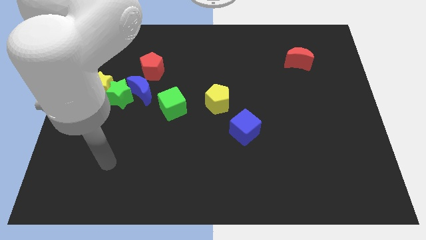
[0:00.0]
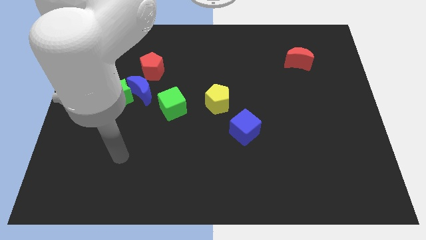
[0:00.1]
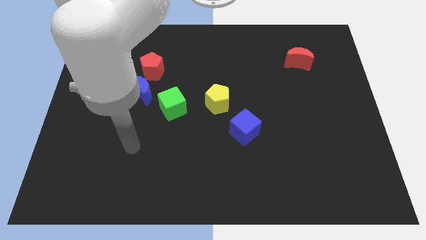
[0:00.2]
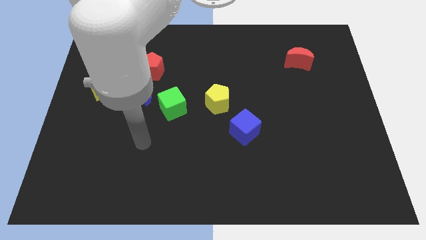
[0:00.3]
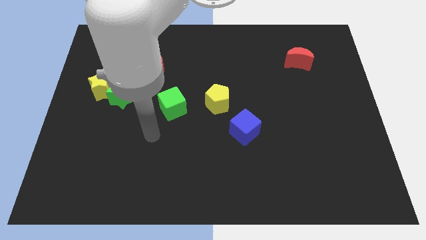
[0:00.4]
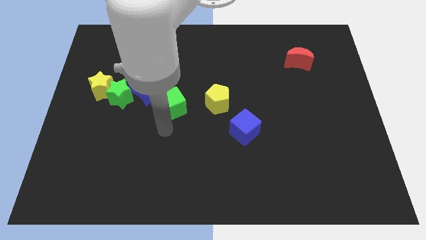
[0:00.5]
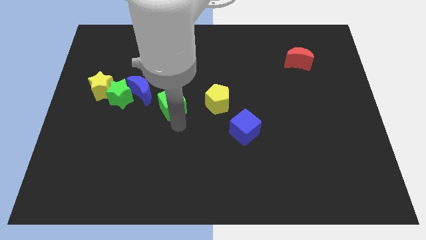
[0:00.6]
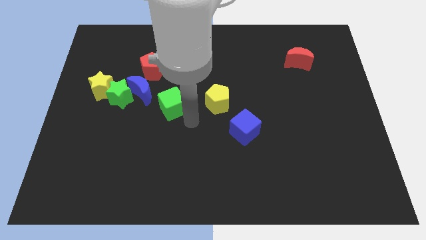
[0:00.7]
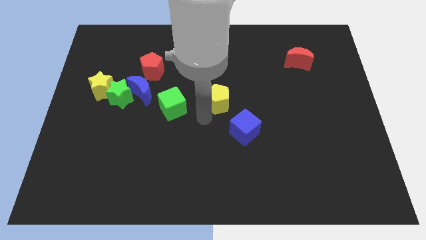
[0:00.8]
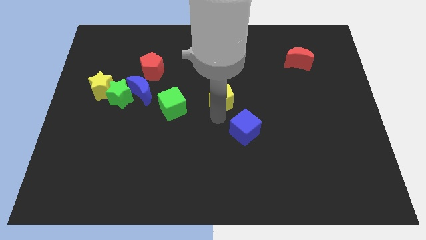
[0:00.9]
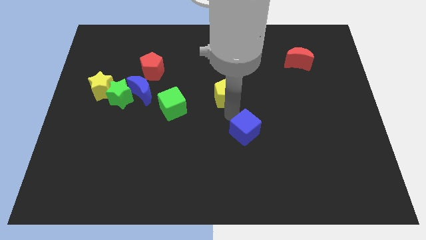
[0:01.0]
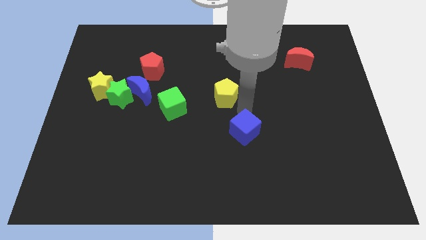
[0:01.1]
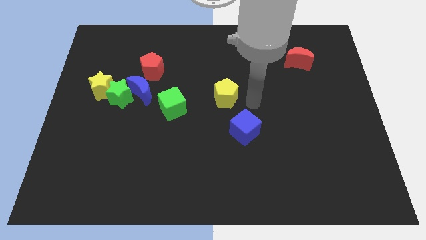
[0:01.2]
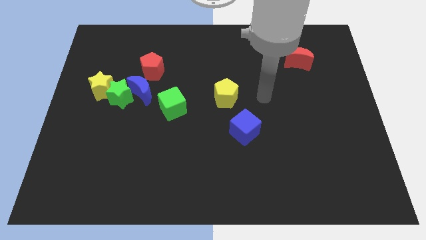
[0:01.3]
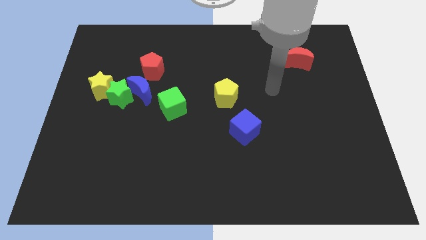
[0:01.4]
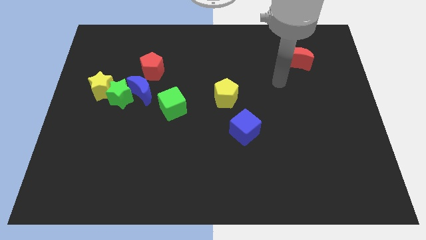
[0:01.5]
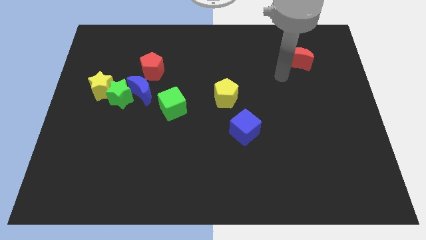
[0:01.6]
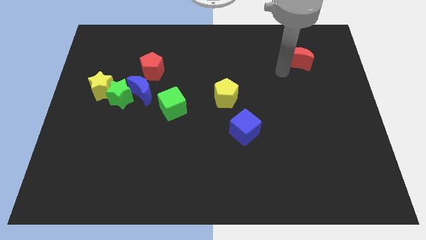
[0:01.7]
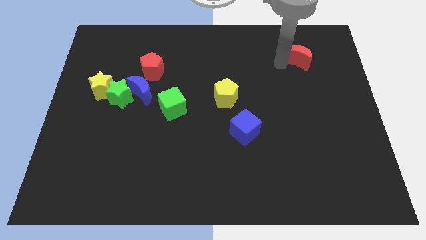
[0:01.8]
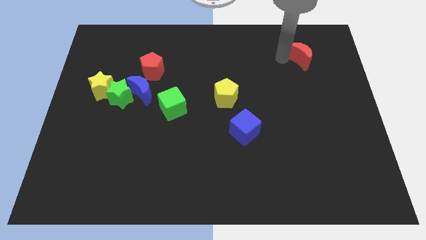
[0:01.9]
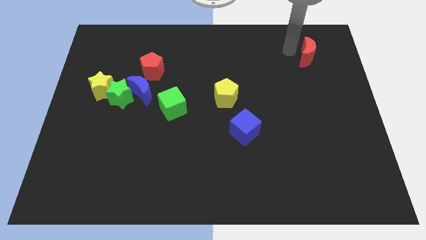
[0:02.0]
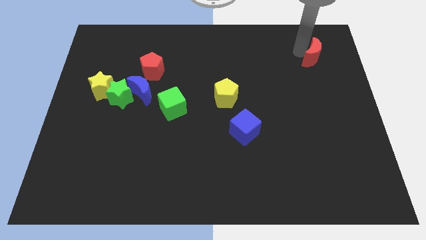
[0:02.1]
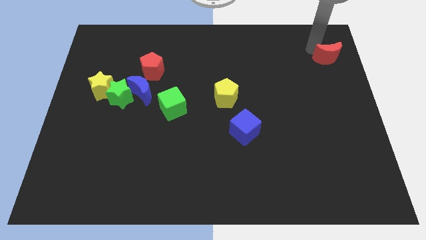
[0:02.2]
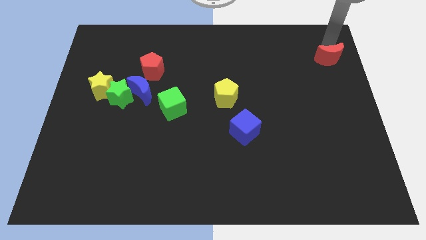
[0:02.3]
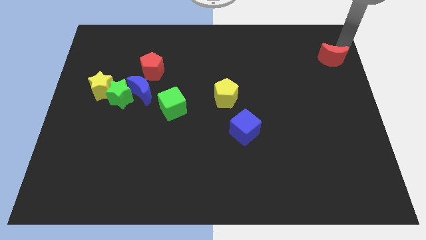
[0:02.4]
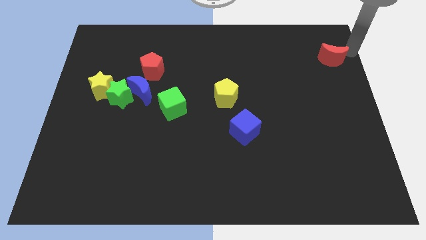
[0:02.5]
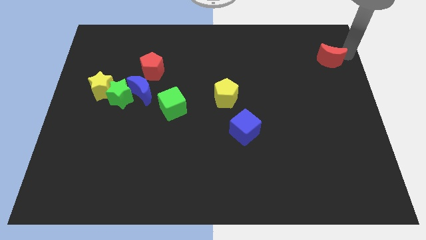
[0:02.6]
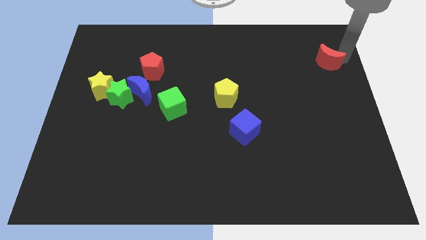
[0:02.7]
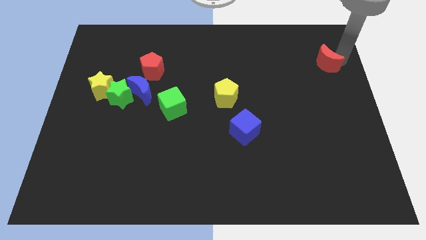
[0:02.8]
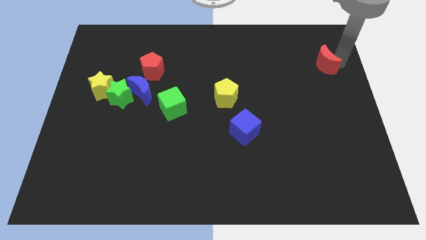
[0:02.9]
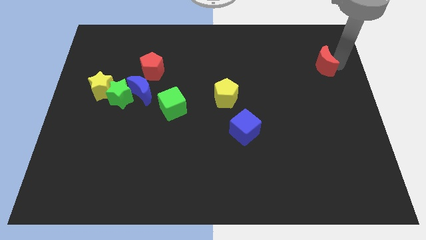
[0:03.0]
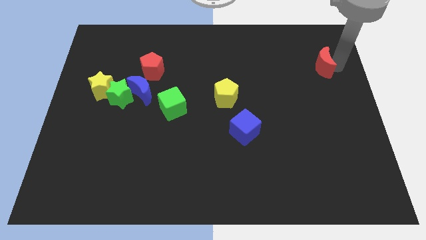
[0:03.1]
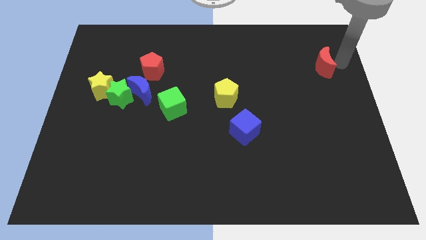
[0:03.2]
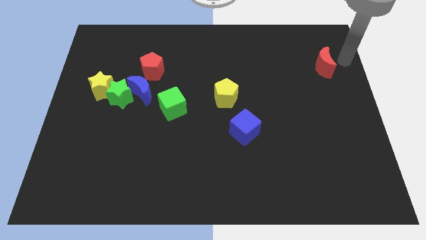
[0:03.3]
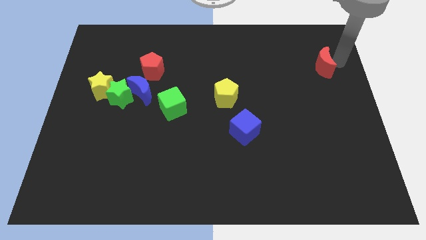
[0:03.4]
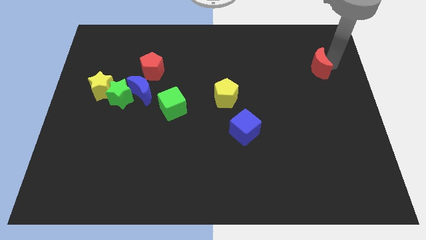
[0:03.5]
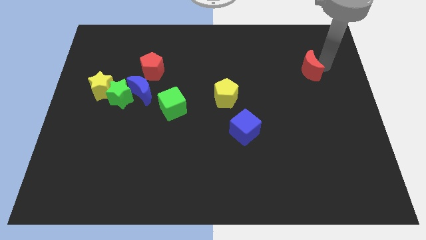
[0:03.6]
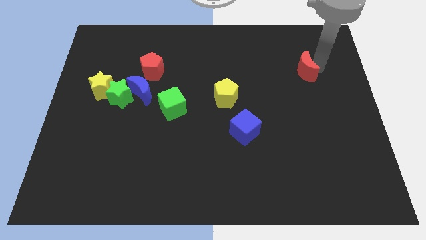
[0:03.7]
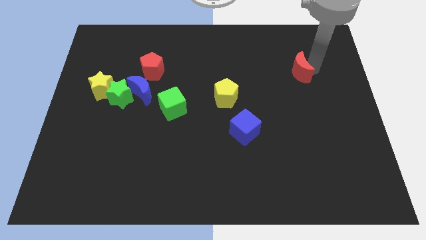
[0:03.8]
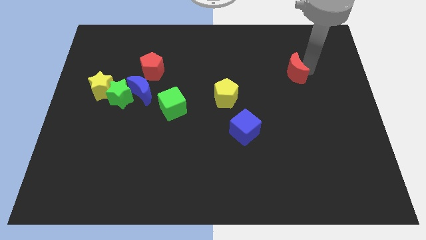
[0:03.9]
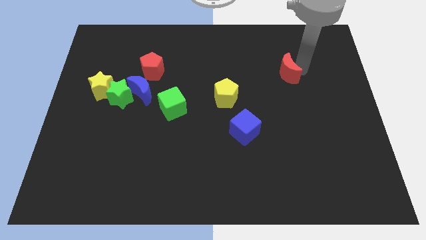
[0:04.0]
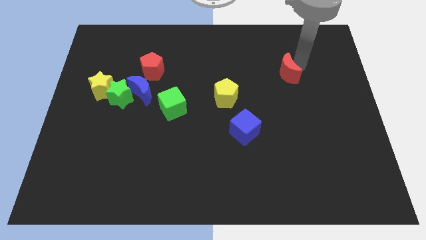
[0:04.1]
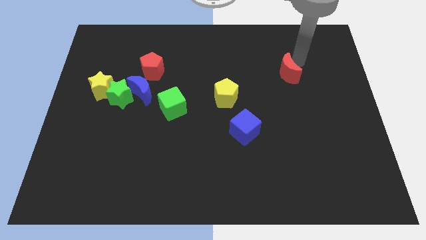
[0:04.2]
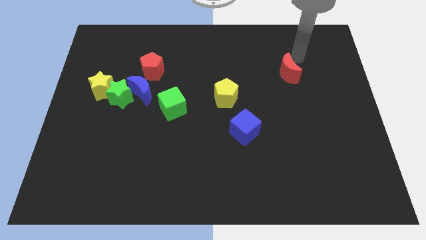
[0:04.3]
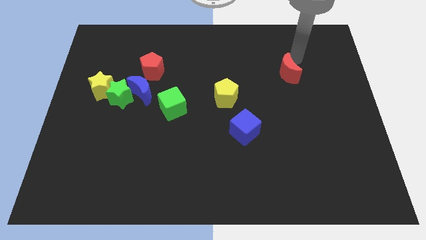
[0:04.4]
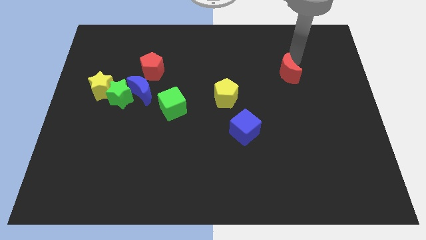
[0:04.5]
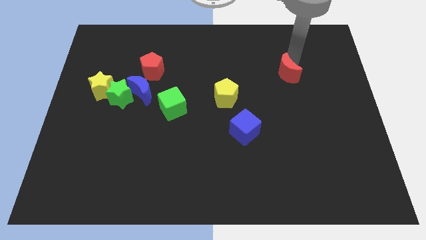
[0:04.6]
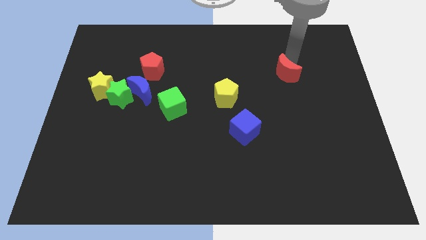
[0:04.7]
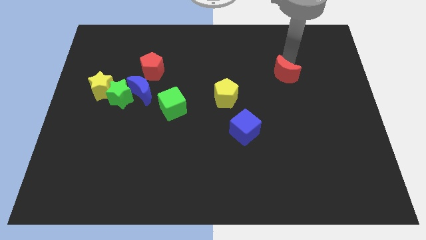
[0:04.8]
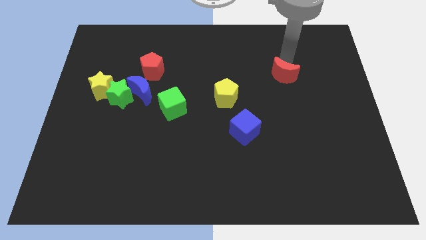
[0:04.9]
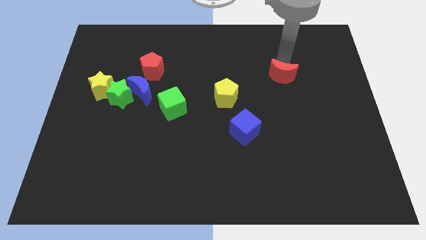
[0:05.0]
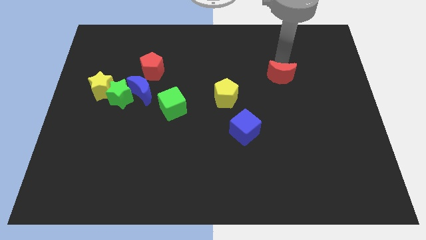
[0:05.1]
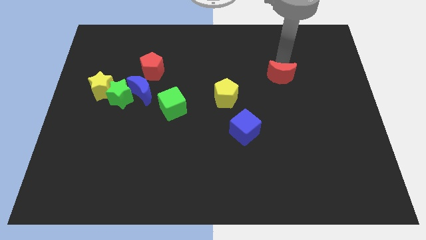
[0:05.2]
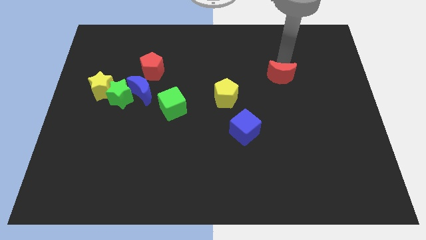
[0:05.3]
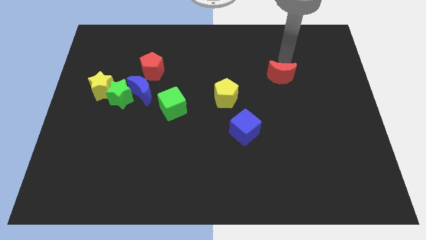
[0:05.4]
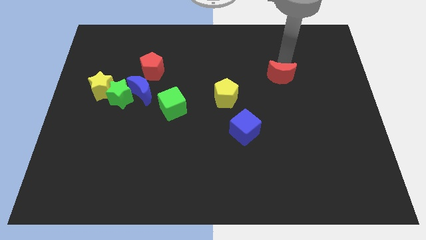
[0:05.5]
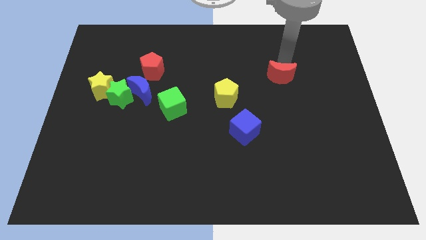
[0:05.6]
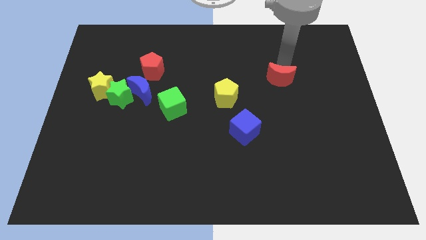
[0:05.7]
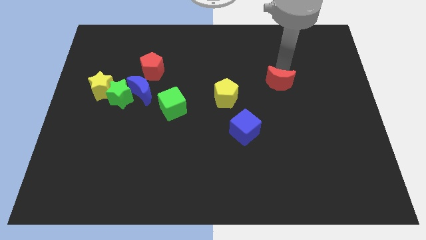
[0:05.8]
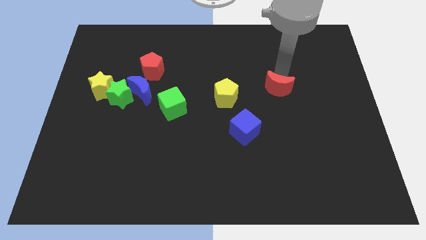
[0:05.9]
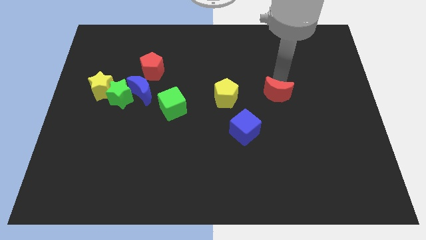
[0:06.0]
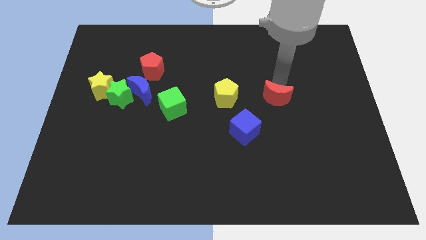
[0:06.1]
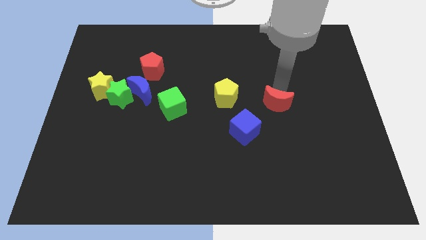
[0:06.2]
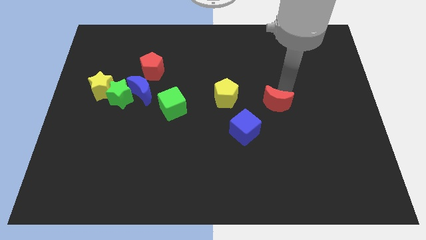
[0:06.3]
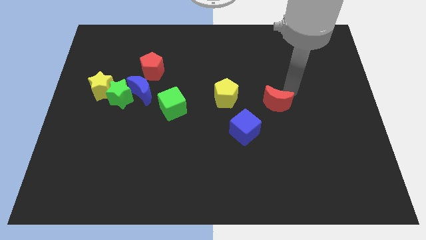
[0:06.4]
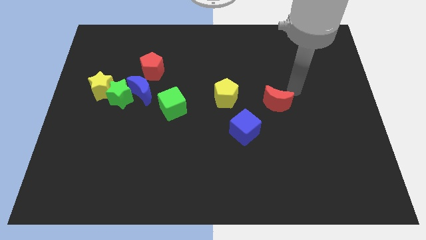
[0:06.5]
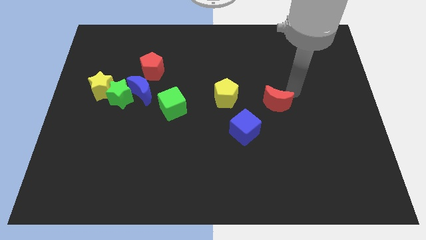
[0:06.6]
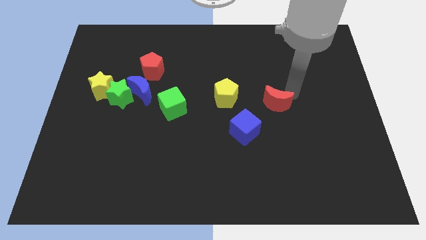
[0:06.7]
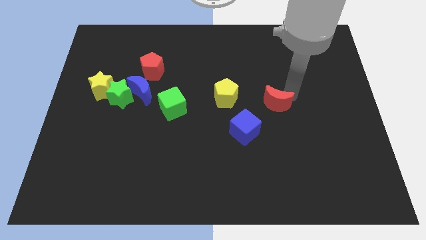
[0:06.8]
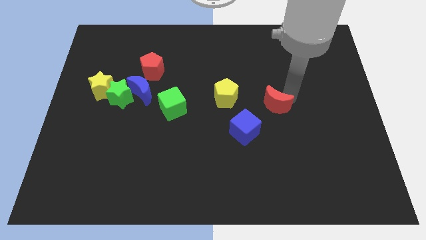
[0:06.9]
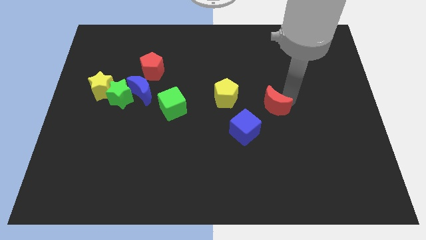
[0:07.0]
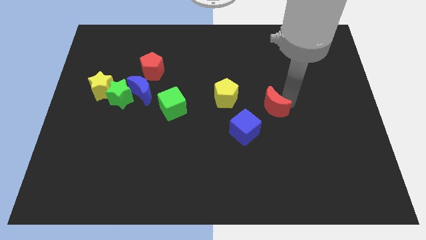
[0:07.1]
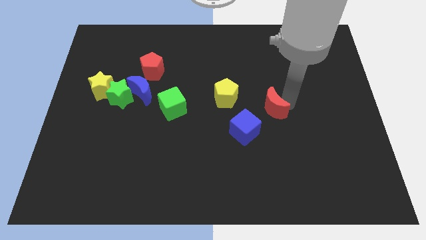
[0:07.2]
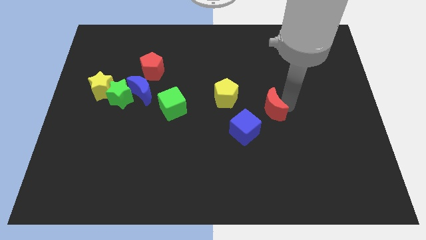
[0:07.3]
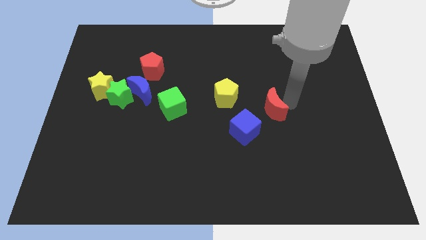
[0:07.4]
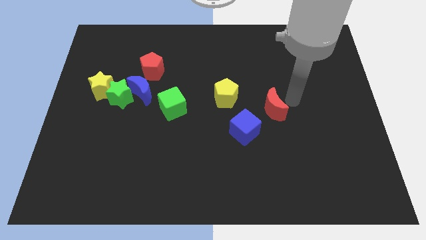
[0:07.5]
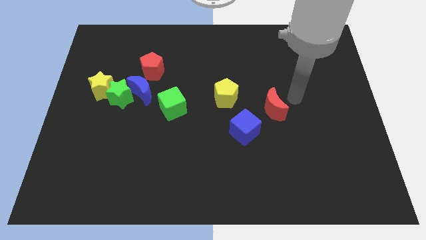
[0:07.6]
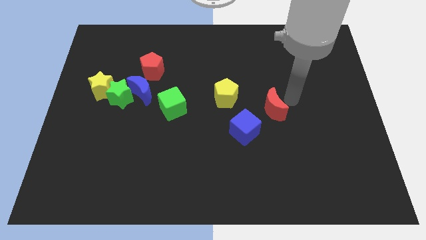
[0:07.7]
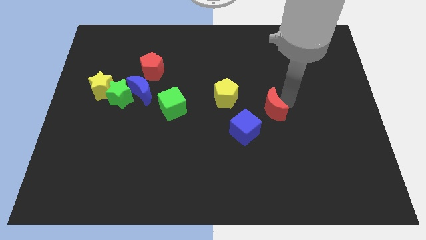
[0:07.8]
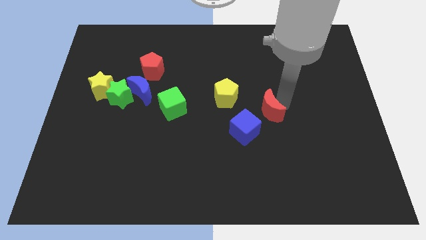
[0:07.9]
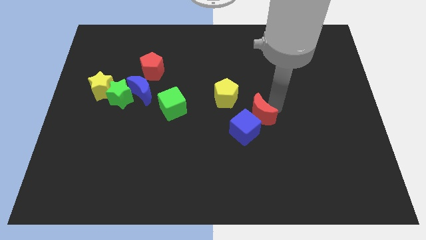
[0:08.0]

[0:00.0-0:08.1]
move the red moon close to the blue cube
